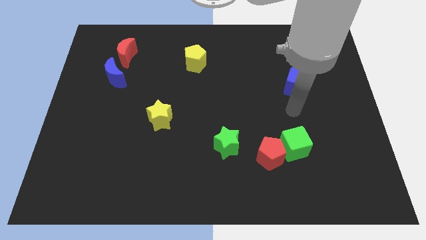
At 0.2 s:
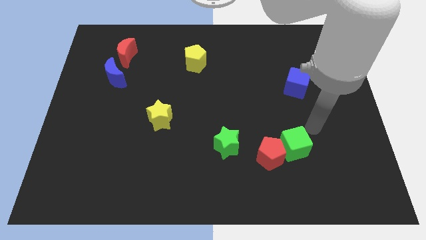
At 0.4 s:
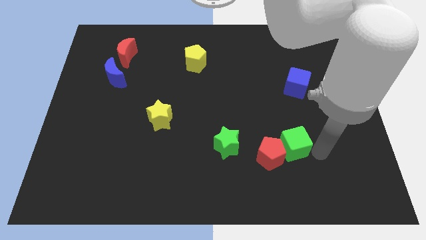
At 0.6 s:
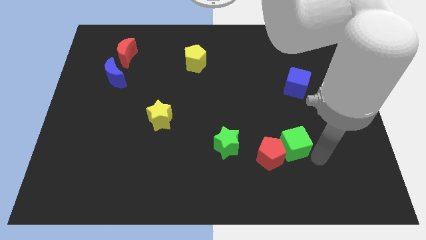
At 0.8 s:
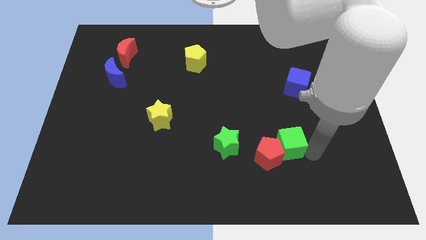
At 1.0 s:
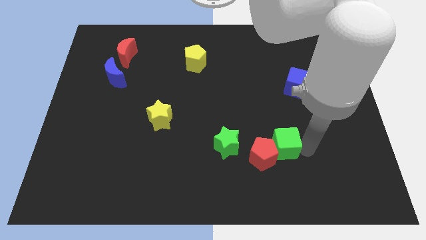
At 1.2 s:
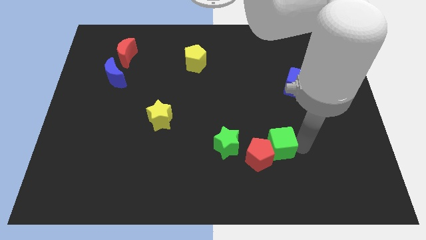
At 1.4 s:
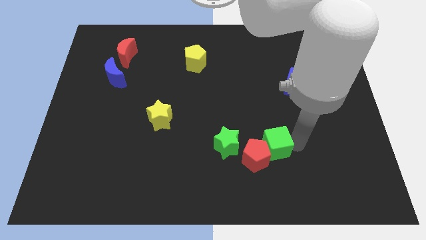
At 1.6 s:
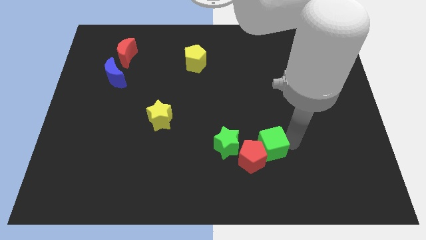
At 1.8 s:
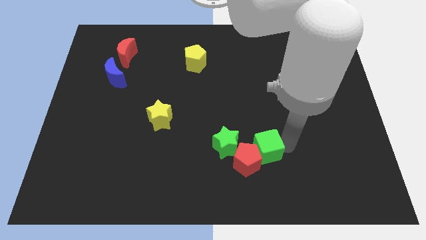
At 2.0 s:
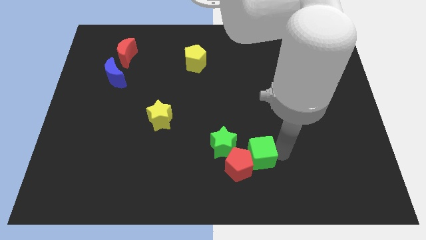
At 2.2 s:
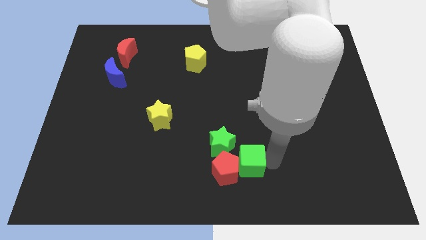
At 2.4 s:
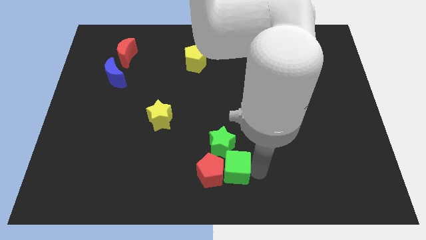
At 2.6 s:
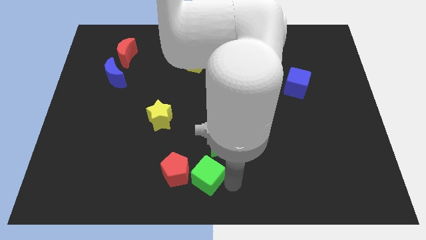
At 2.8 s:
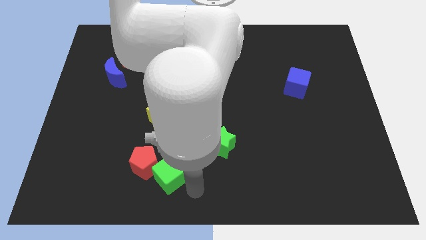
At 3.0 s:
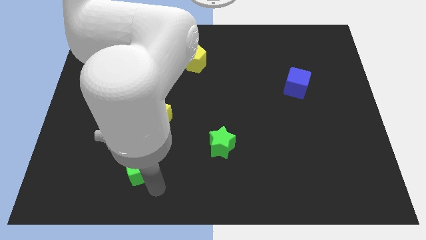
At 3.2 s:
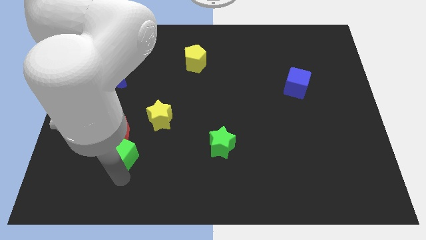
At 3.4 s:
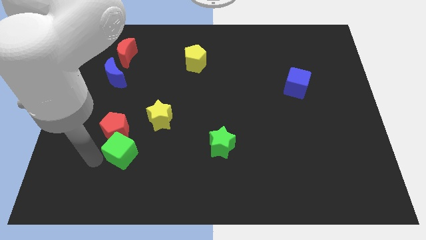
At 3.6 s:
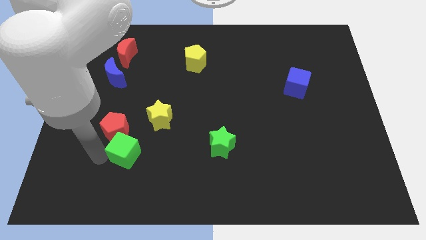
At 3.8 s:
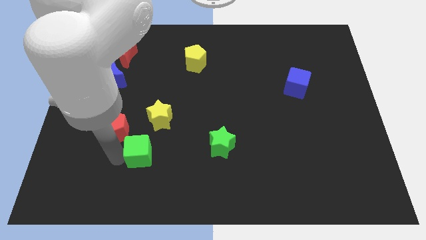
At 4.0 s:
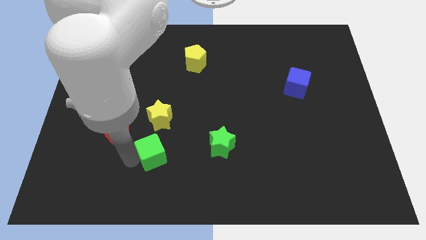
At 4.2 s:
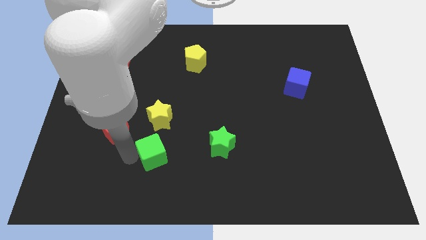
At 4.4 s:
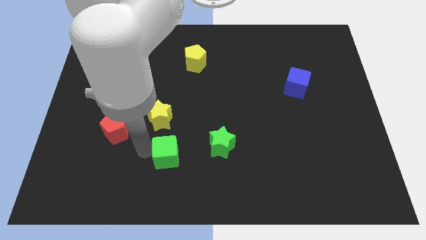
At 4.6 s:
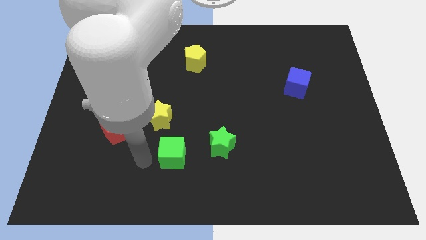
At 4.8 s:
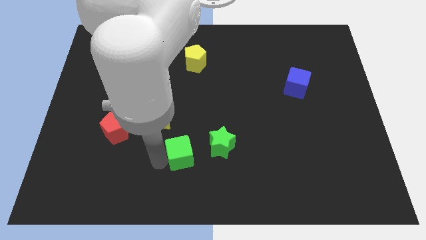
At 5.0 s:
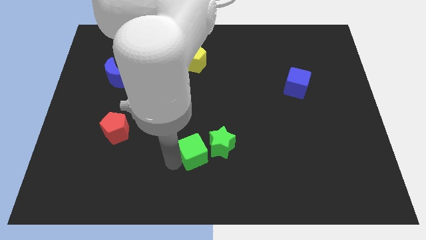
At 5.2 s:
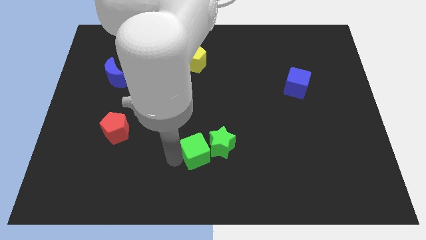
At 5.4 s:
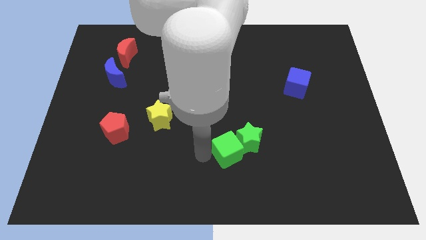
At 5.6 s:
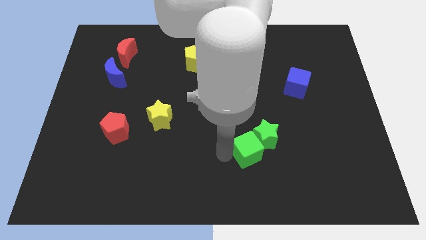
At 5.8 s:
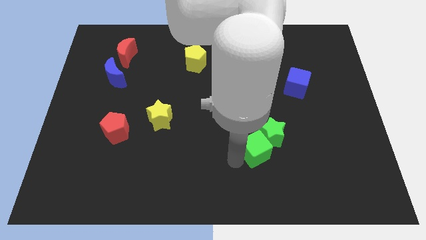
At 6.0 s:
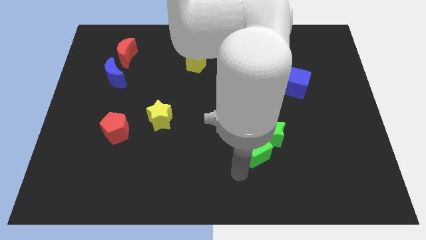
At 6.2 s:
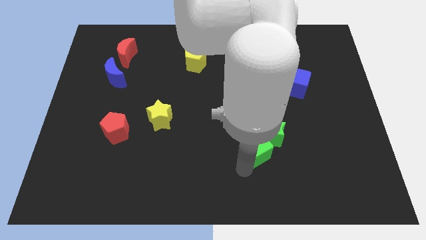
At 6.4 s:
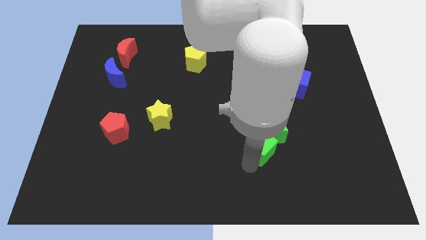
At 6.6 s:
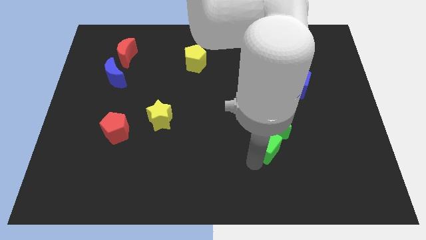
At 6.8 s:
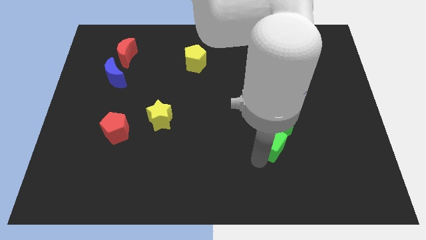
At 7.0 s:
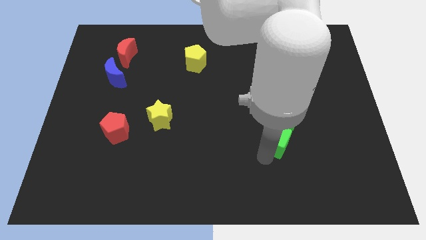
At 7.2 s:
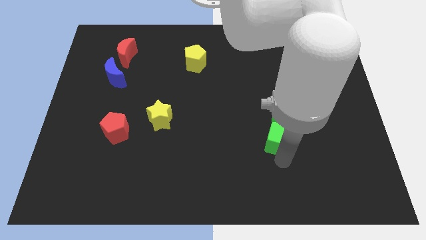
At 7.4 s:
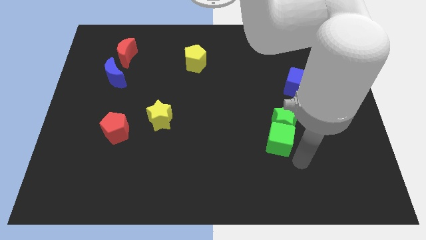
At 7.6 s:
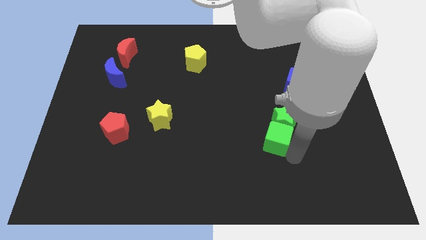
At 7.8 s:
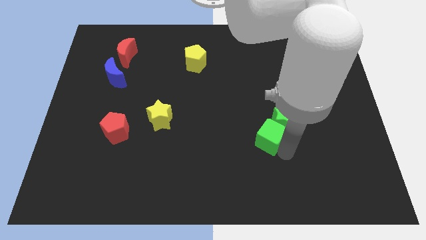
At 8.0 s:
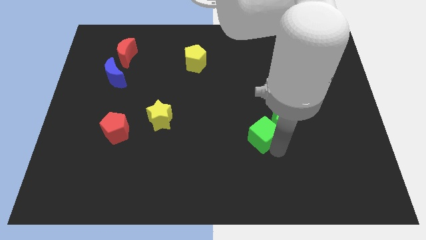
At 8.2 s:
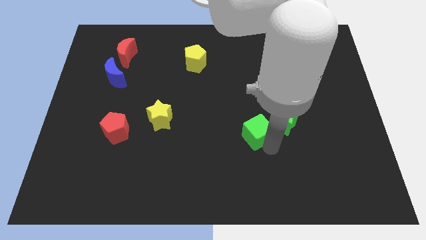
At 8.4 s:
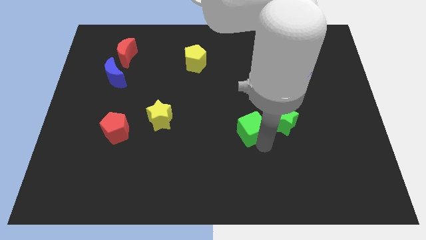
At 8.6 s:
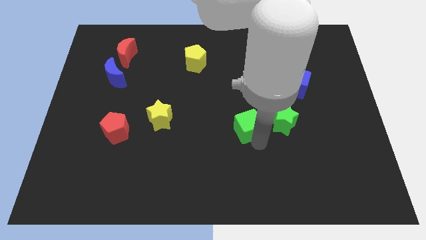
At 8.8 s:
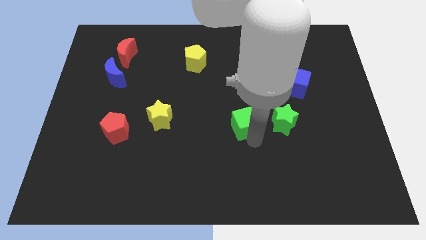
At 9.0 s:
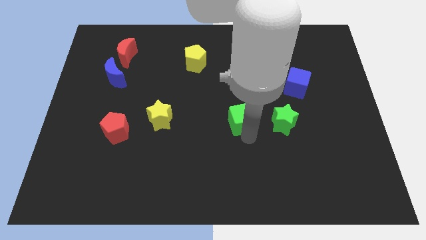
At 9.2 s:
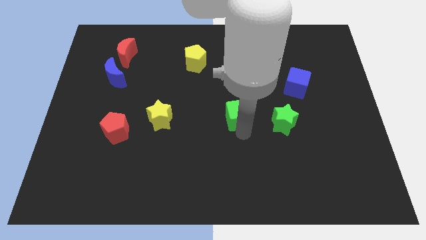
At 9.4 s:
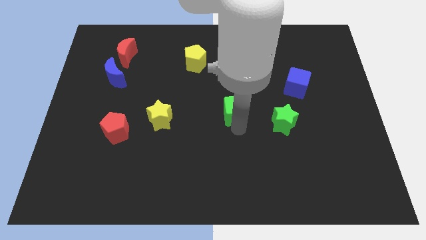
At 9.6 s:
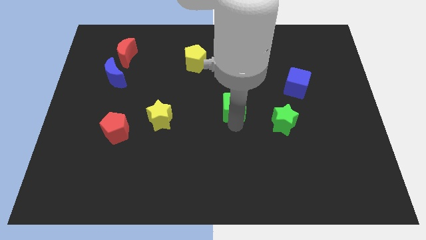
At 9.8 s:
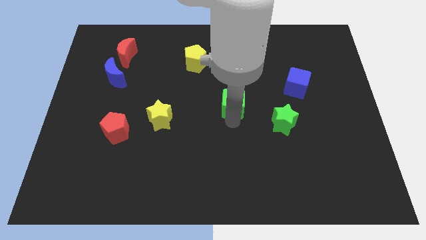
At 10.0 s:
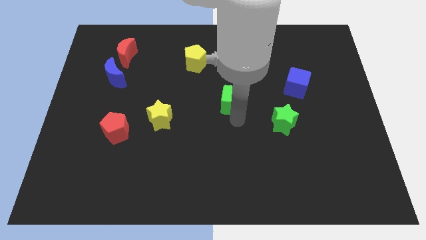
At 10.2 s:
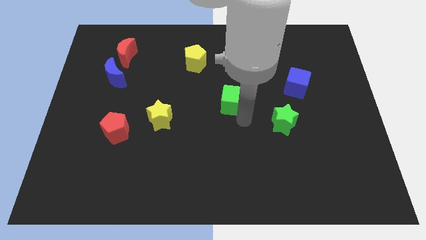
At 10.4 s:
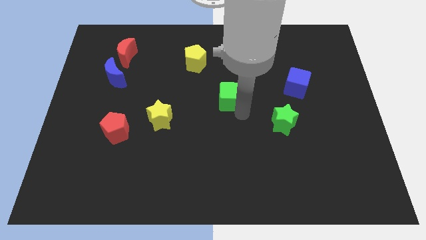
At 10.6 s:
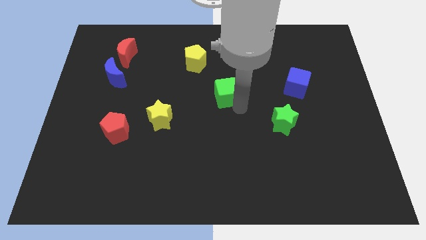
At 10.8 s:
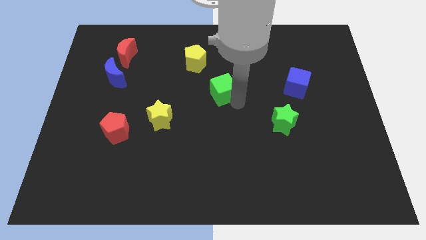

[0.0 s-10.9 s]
slide the green cube diagonally down and to the right of the yellow pentagon
